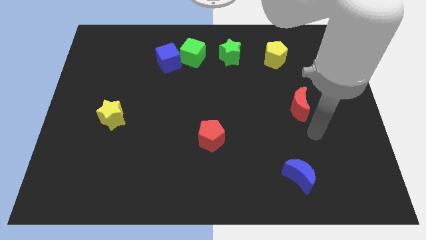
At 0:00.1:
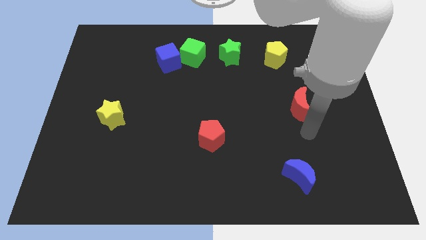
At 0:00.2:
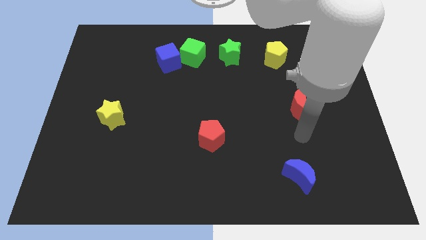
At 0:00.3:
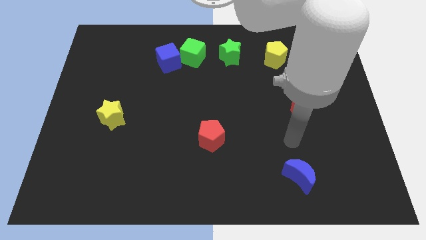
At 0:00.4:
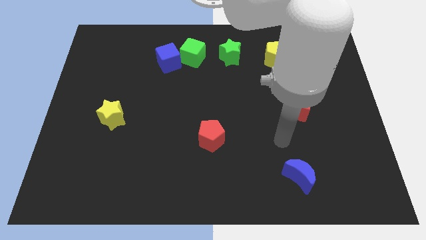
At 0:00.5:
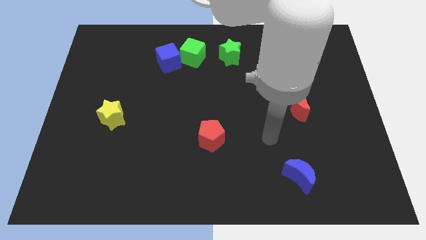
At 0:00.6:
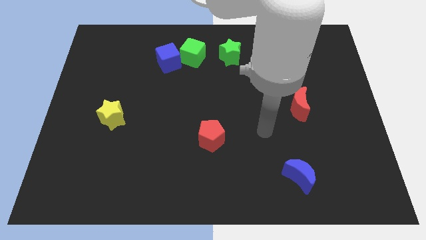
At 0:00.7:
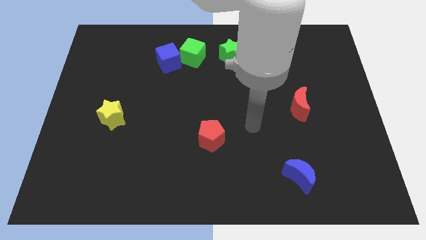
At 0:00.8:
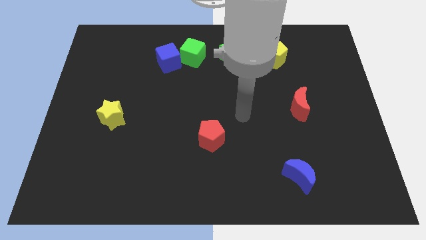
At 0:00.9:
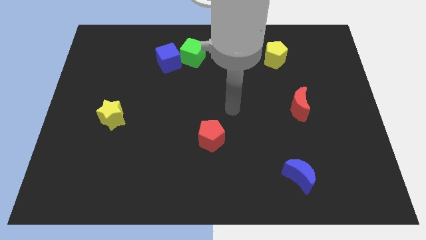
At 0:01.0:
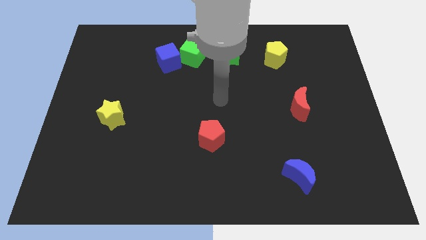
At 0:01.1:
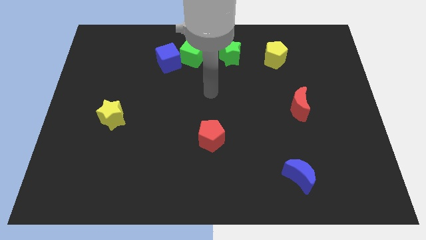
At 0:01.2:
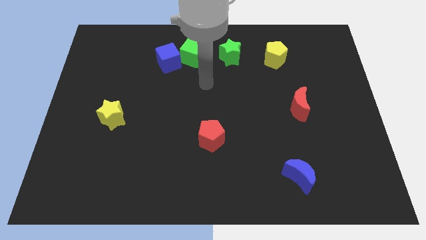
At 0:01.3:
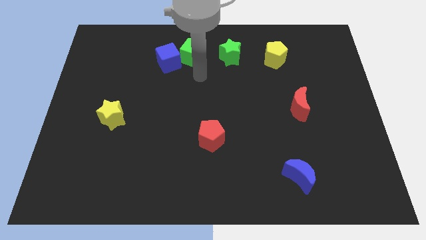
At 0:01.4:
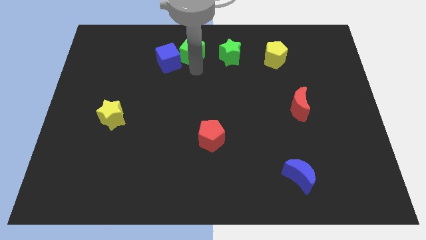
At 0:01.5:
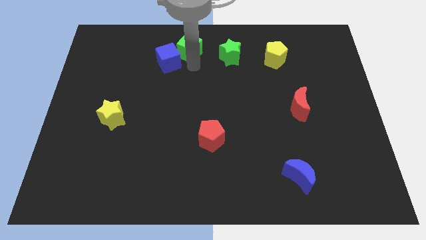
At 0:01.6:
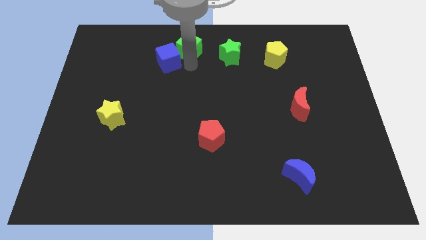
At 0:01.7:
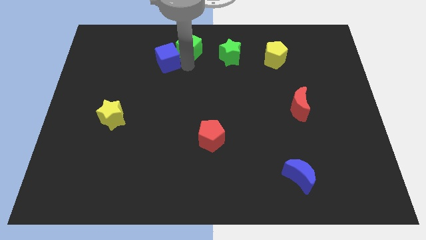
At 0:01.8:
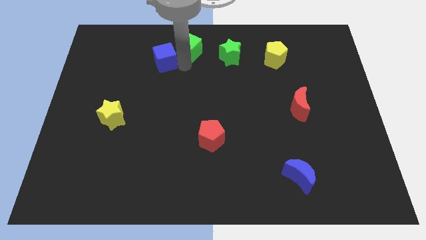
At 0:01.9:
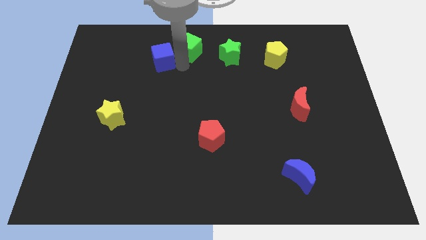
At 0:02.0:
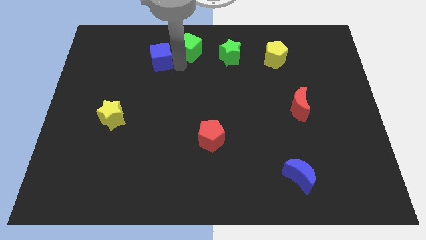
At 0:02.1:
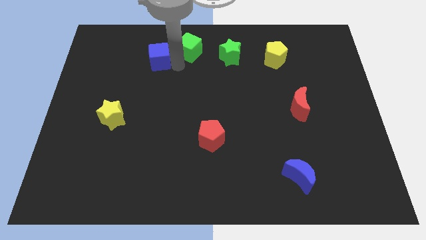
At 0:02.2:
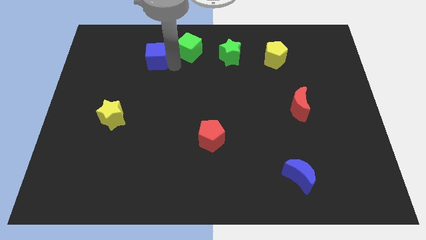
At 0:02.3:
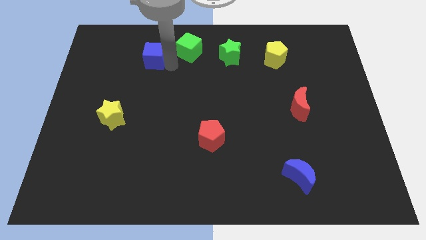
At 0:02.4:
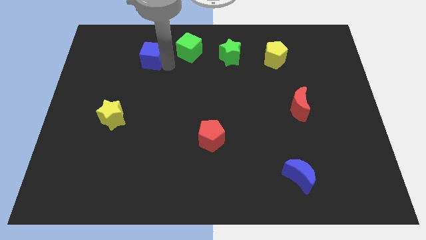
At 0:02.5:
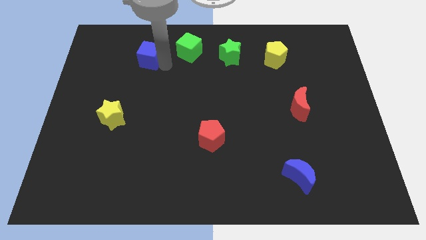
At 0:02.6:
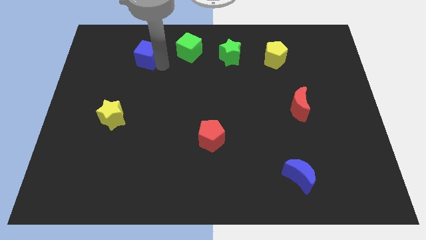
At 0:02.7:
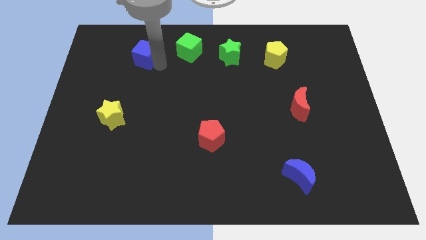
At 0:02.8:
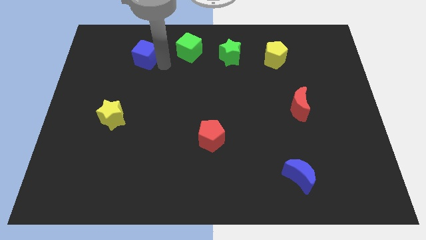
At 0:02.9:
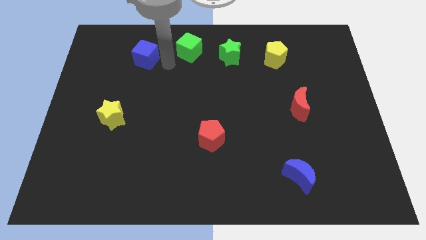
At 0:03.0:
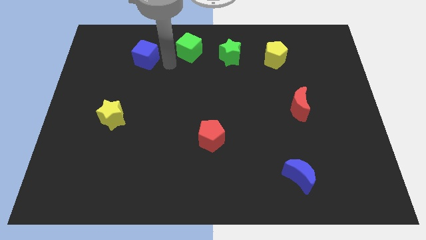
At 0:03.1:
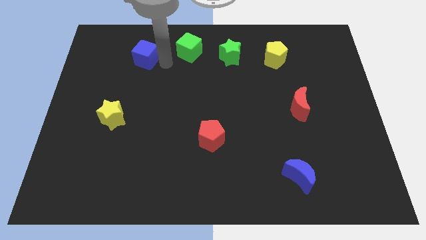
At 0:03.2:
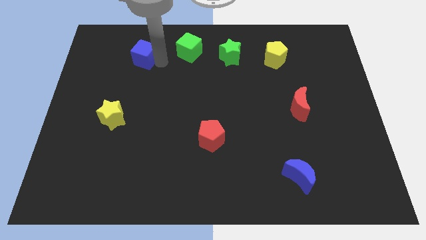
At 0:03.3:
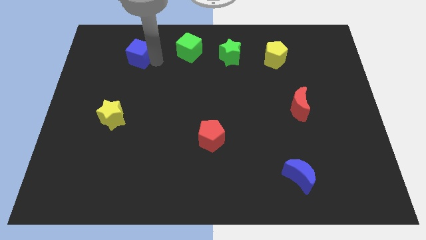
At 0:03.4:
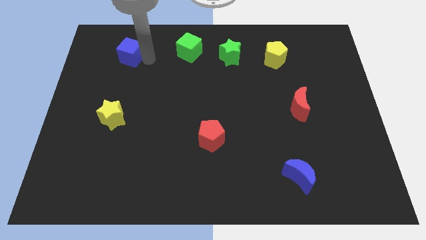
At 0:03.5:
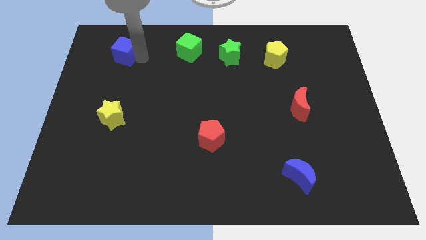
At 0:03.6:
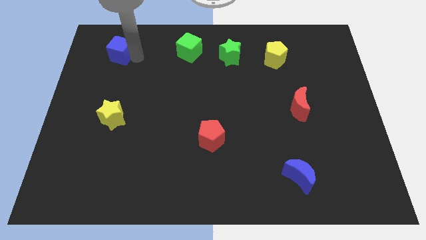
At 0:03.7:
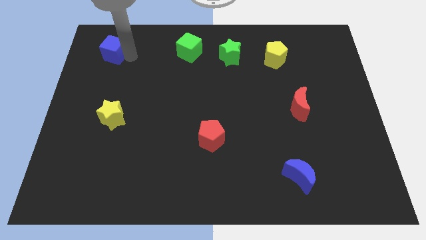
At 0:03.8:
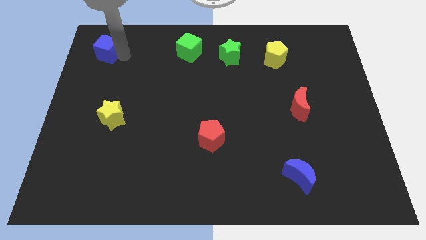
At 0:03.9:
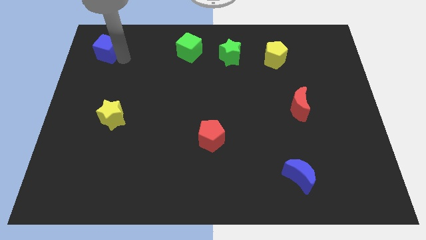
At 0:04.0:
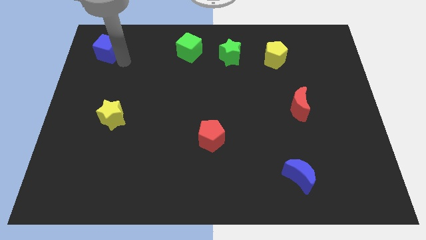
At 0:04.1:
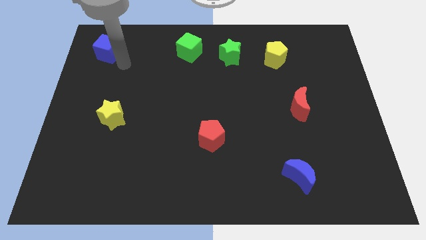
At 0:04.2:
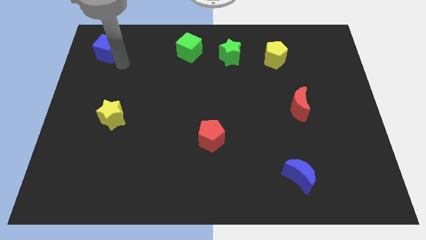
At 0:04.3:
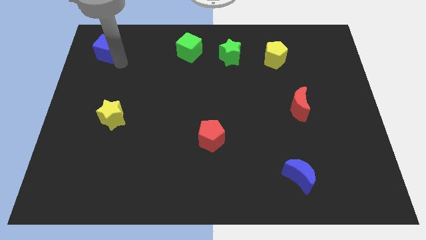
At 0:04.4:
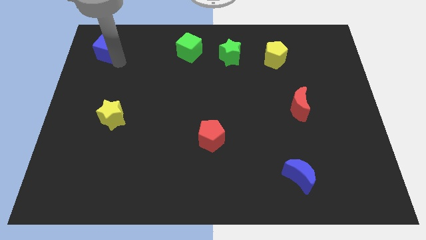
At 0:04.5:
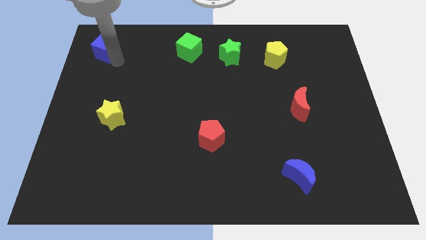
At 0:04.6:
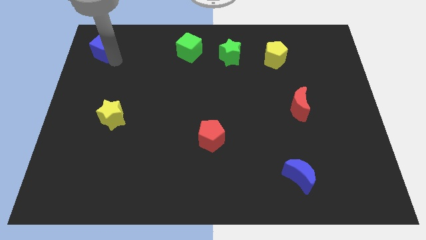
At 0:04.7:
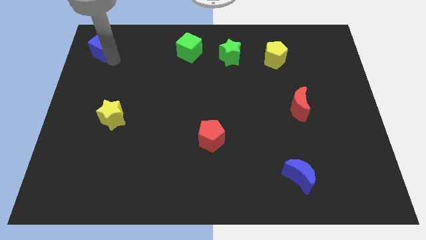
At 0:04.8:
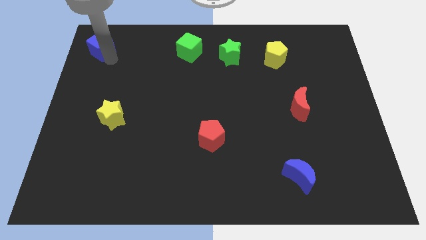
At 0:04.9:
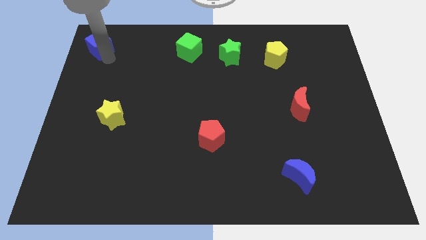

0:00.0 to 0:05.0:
put the blue cube to the upper left corner

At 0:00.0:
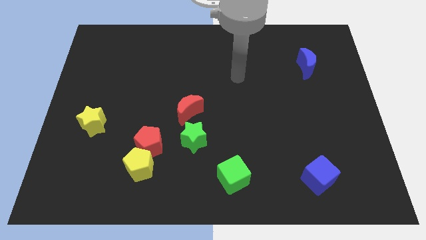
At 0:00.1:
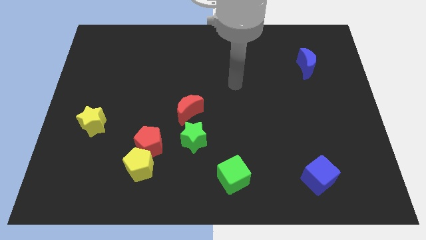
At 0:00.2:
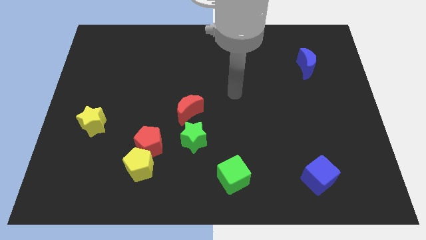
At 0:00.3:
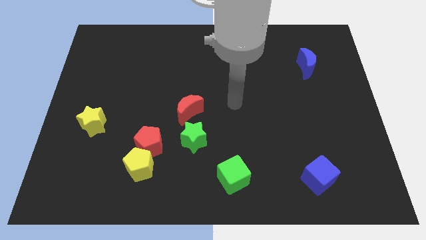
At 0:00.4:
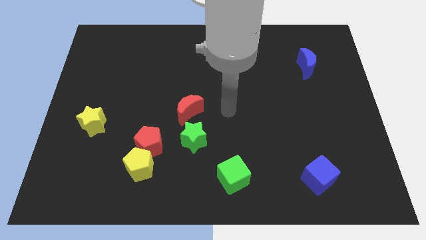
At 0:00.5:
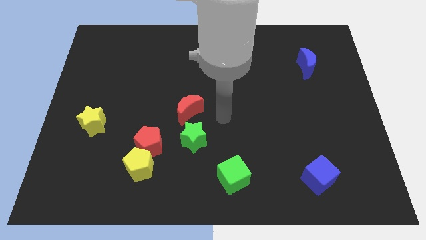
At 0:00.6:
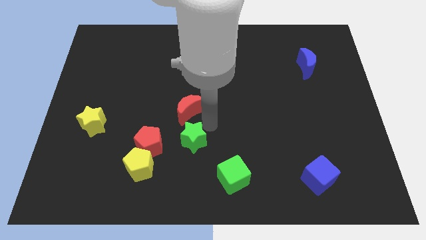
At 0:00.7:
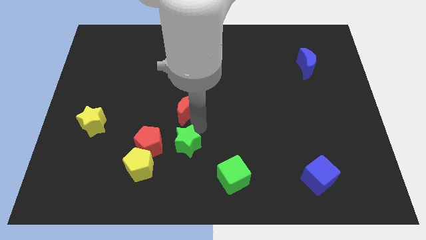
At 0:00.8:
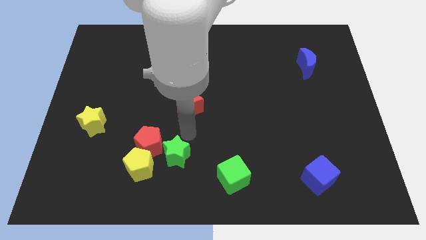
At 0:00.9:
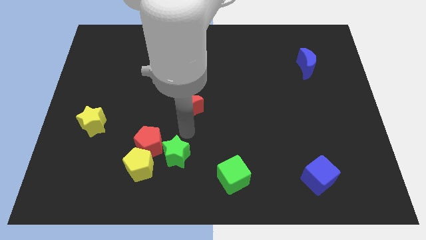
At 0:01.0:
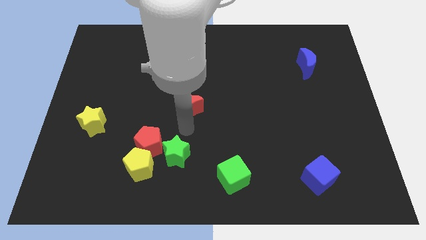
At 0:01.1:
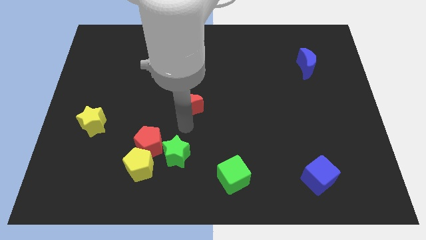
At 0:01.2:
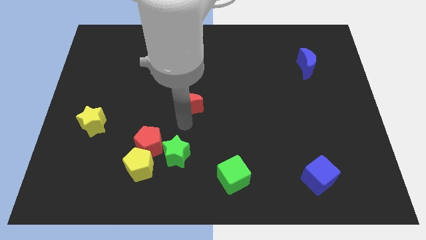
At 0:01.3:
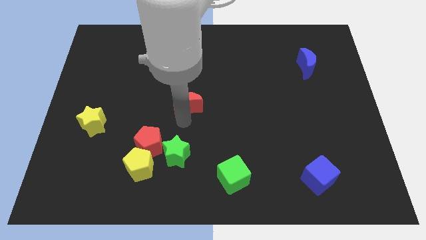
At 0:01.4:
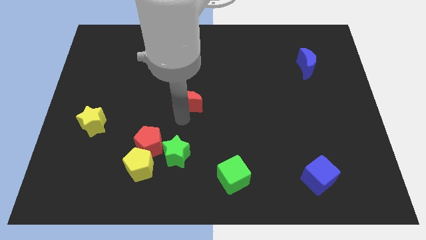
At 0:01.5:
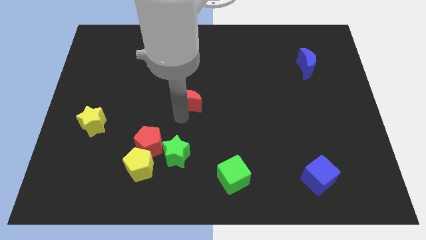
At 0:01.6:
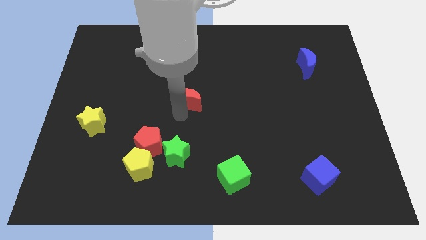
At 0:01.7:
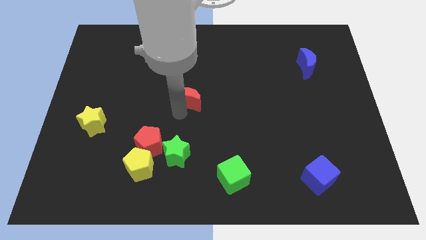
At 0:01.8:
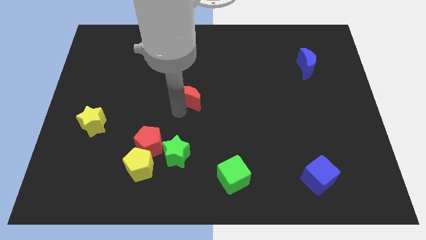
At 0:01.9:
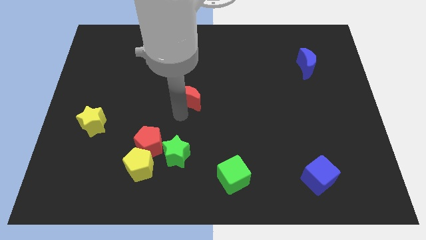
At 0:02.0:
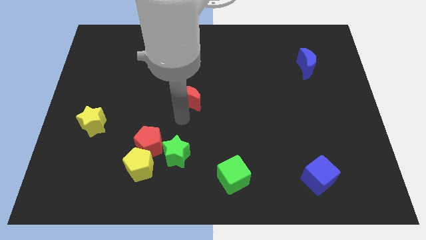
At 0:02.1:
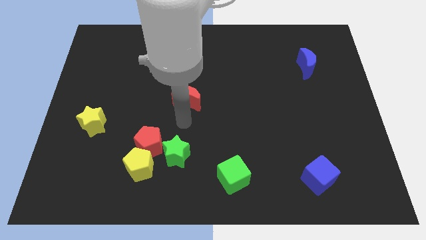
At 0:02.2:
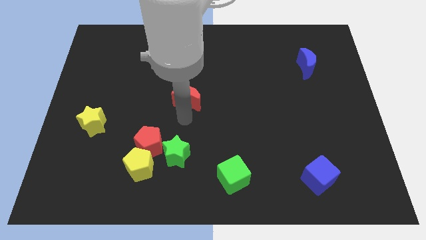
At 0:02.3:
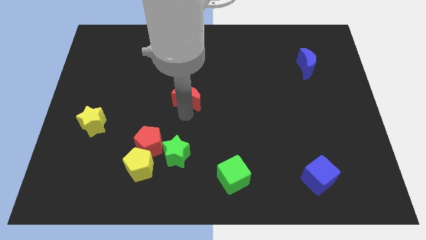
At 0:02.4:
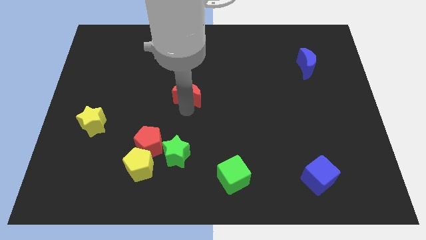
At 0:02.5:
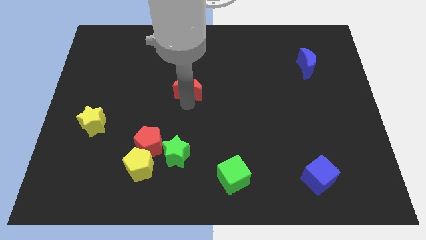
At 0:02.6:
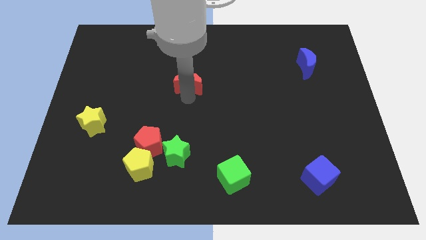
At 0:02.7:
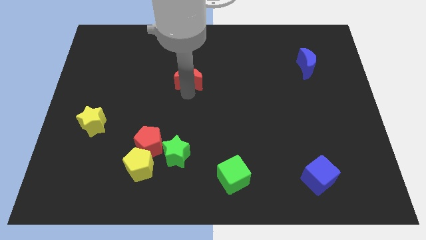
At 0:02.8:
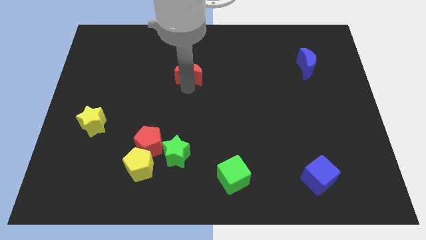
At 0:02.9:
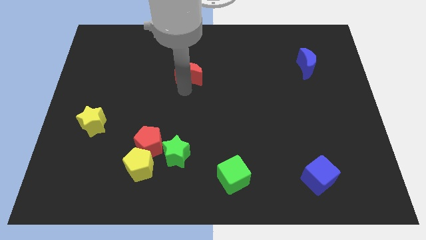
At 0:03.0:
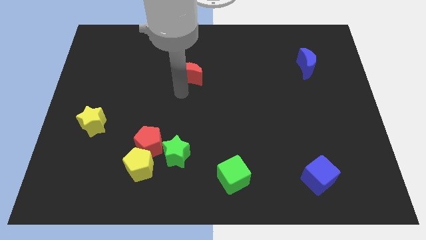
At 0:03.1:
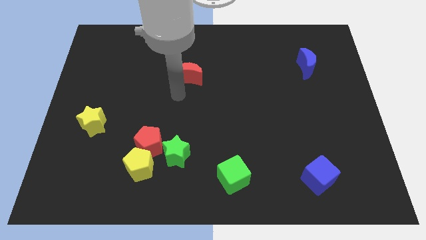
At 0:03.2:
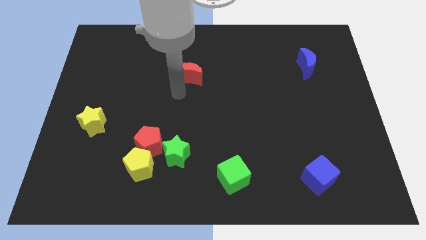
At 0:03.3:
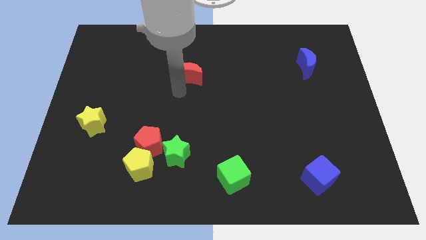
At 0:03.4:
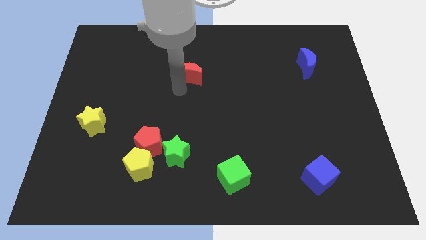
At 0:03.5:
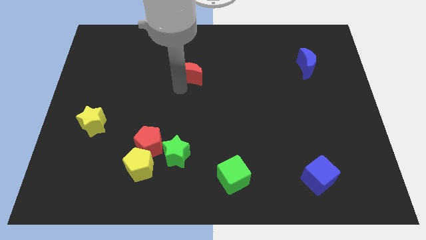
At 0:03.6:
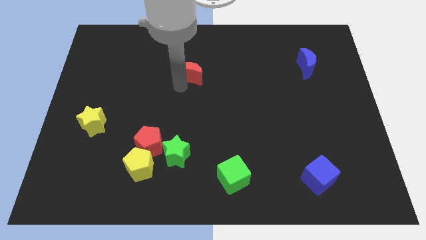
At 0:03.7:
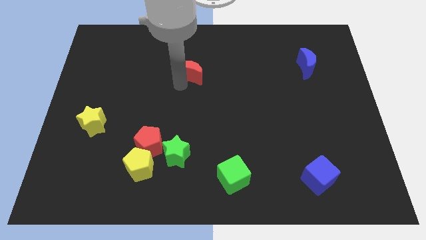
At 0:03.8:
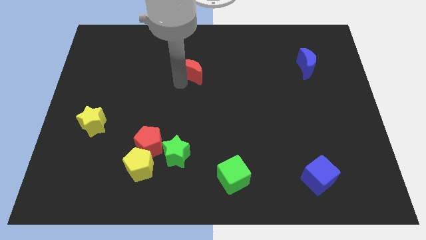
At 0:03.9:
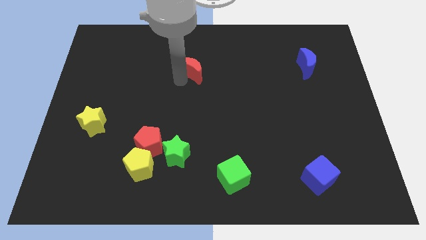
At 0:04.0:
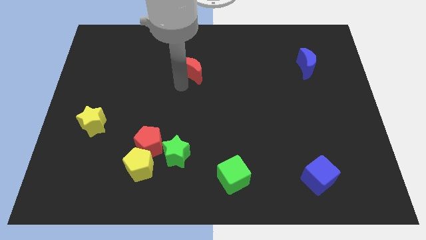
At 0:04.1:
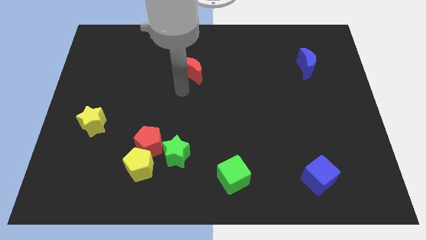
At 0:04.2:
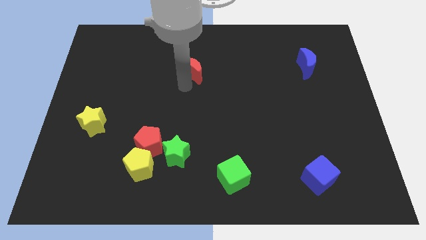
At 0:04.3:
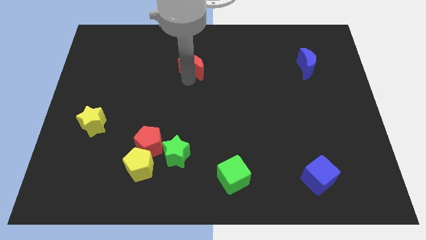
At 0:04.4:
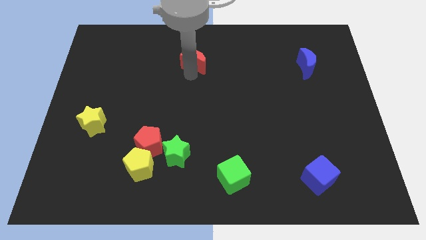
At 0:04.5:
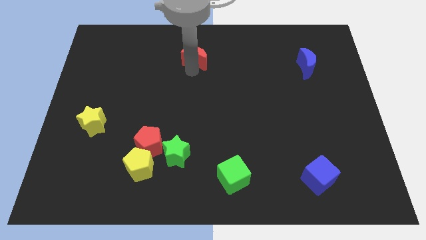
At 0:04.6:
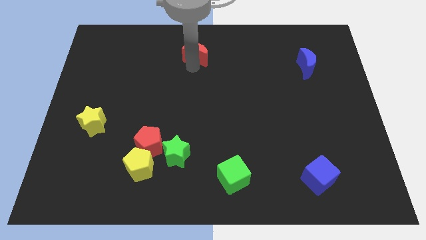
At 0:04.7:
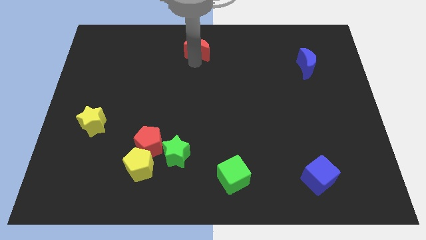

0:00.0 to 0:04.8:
slide the red moon to the towards your base
